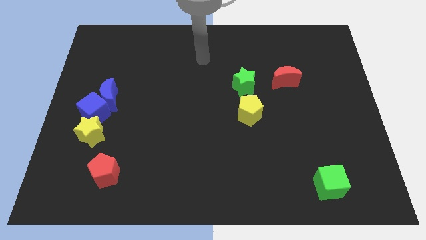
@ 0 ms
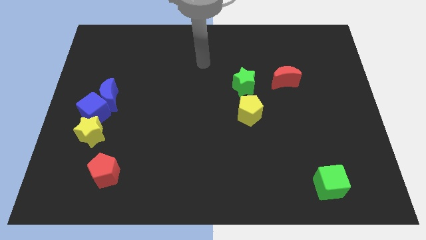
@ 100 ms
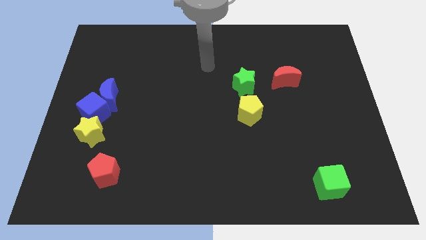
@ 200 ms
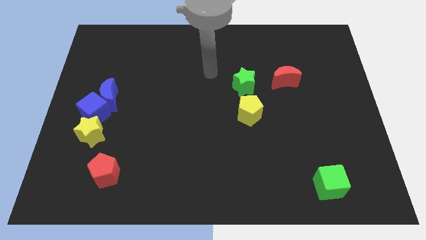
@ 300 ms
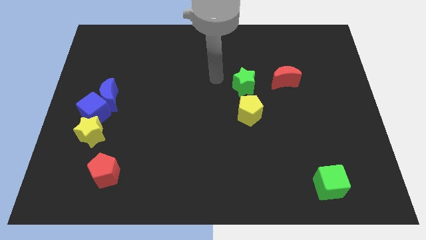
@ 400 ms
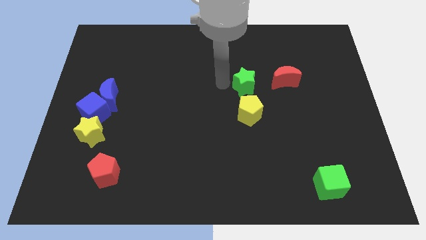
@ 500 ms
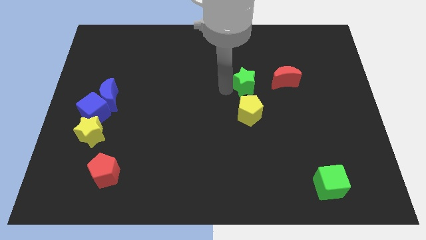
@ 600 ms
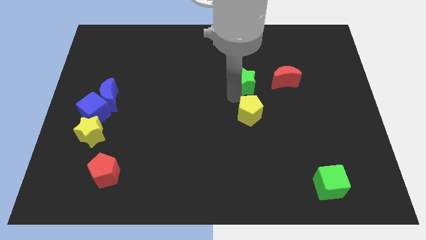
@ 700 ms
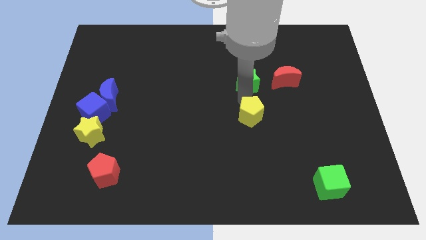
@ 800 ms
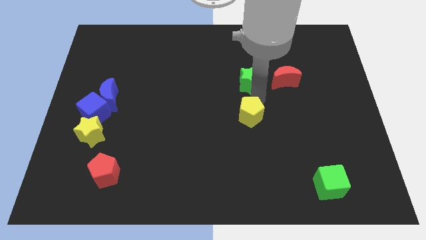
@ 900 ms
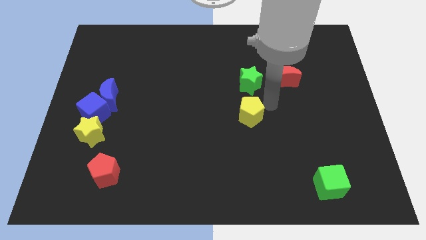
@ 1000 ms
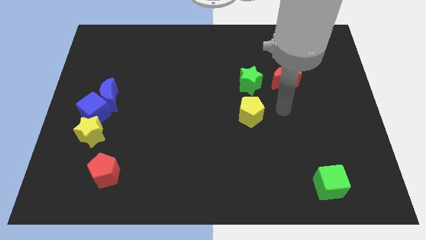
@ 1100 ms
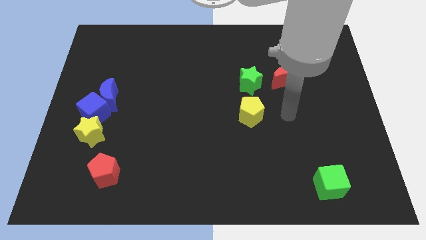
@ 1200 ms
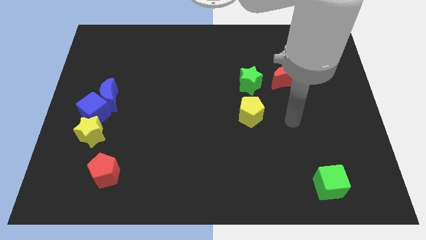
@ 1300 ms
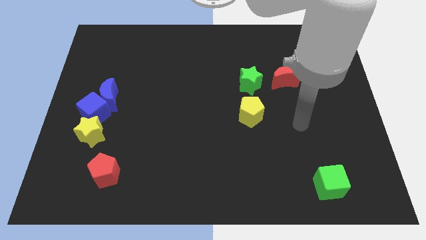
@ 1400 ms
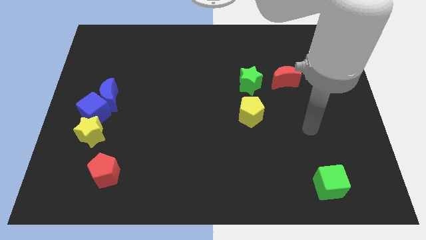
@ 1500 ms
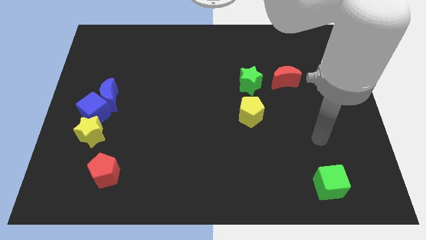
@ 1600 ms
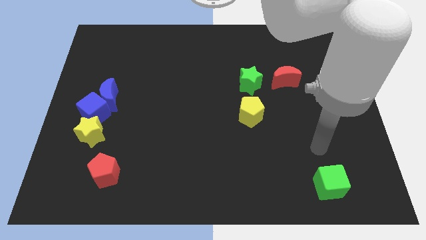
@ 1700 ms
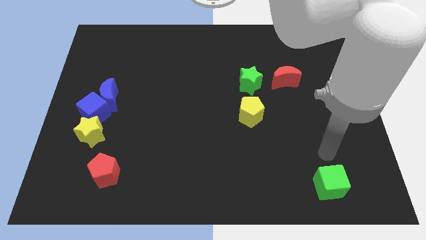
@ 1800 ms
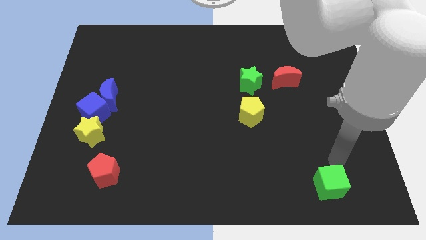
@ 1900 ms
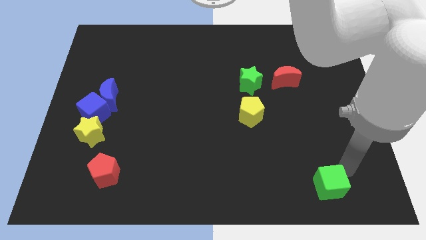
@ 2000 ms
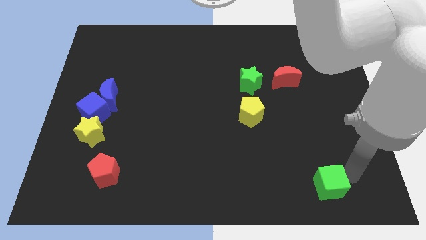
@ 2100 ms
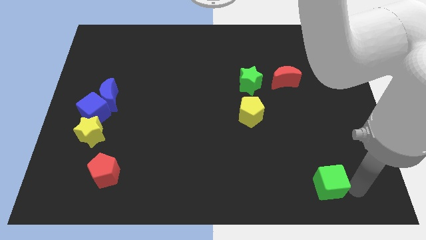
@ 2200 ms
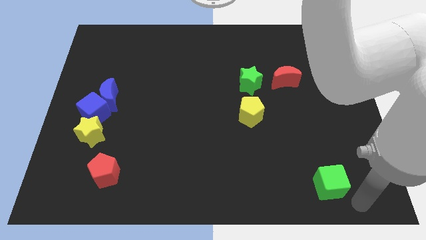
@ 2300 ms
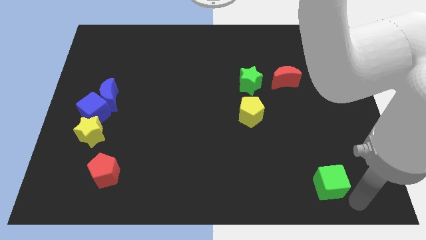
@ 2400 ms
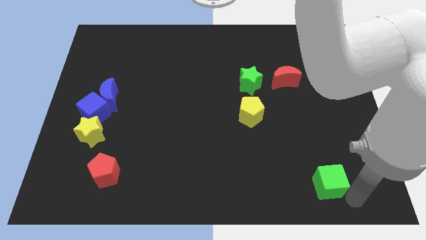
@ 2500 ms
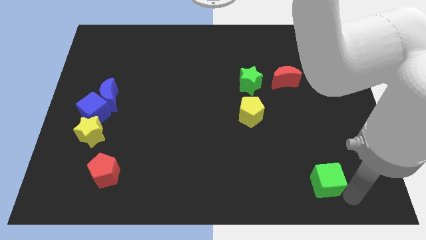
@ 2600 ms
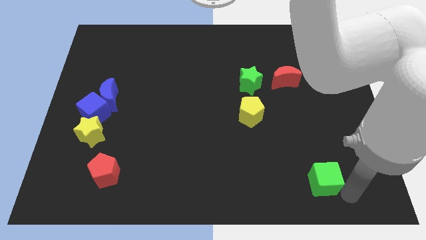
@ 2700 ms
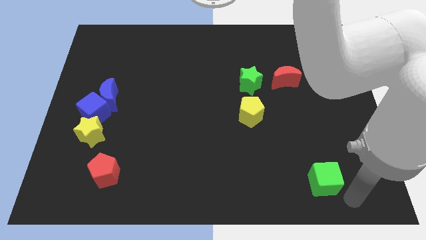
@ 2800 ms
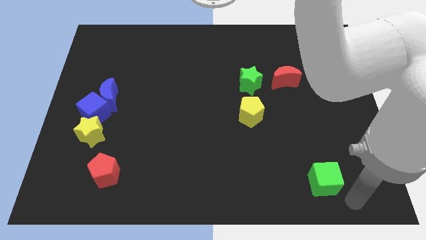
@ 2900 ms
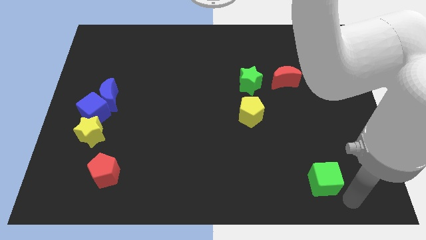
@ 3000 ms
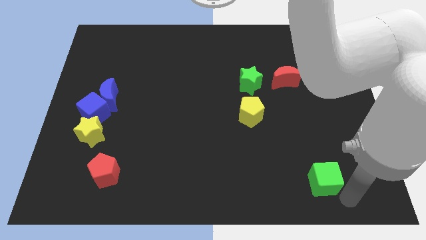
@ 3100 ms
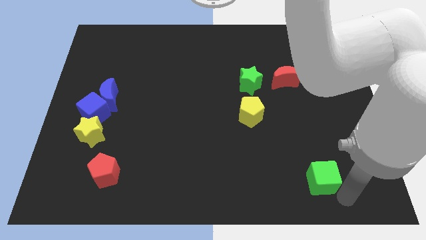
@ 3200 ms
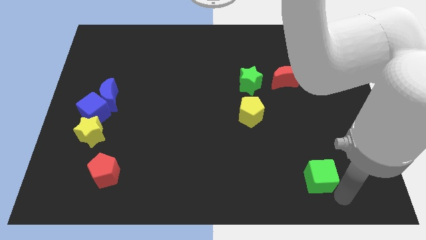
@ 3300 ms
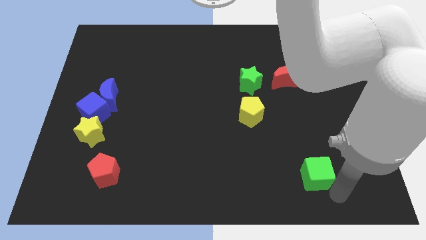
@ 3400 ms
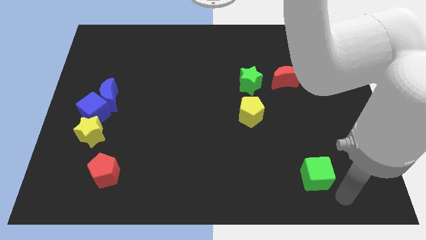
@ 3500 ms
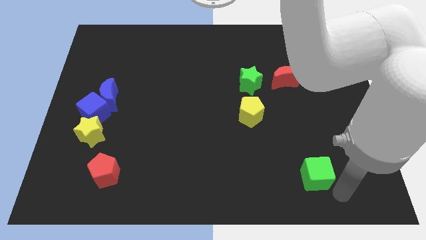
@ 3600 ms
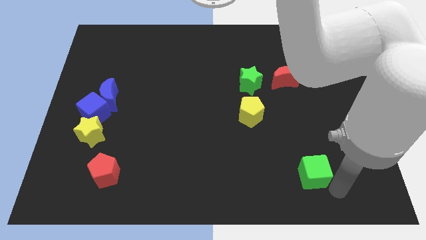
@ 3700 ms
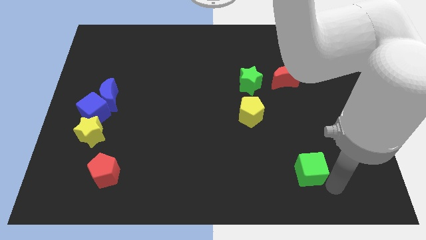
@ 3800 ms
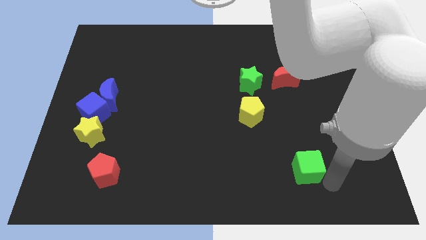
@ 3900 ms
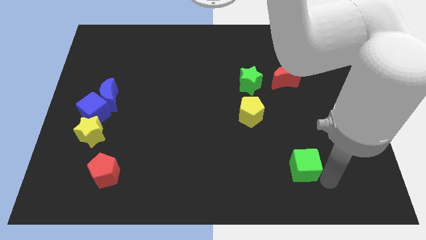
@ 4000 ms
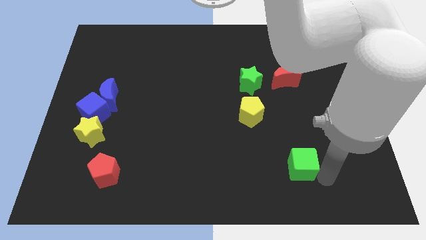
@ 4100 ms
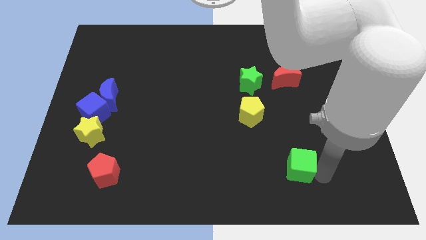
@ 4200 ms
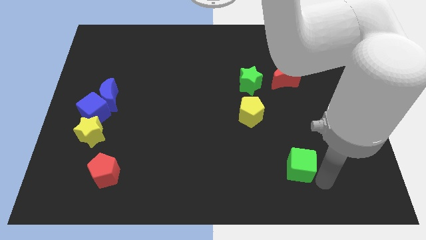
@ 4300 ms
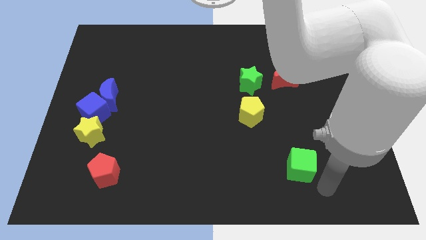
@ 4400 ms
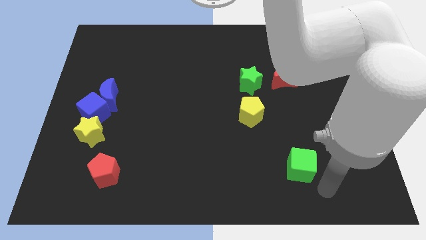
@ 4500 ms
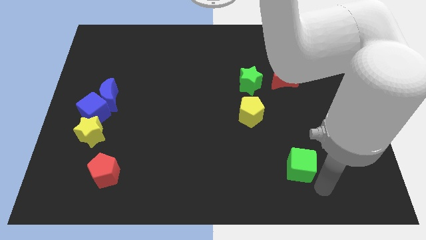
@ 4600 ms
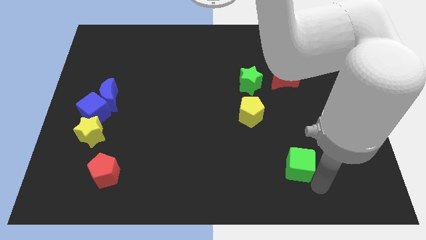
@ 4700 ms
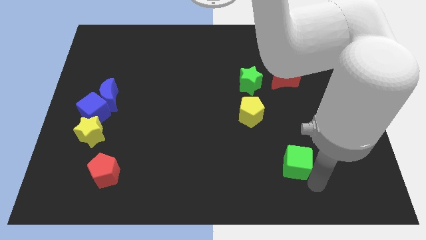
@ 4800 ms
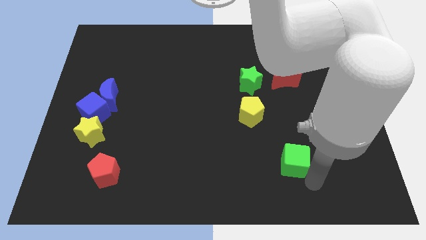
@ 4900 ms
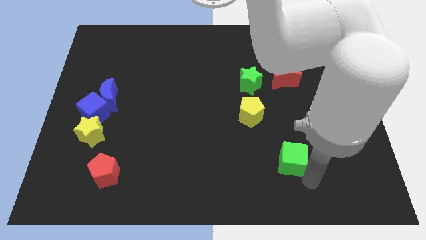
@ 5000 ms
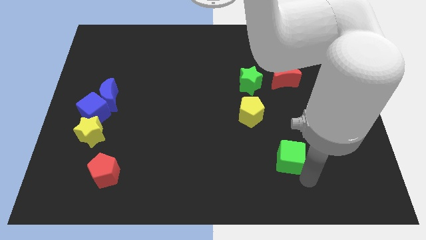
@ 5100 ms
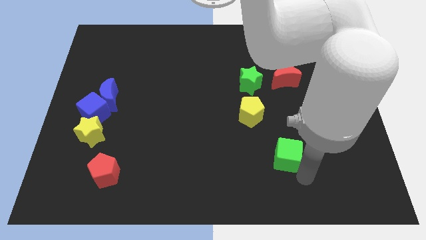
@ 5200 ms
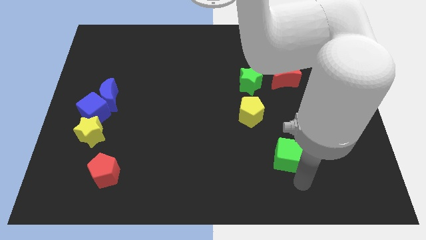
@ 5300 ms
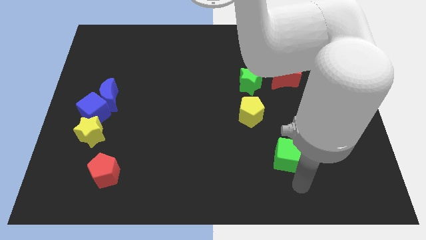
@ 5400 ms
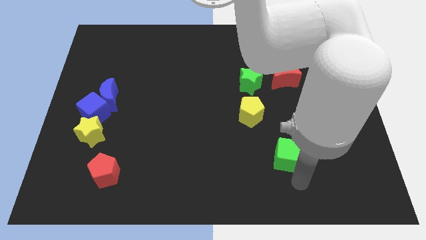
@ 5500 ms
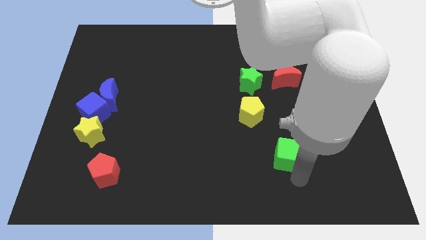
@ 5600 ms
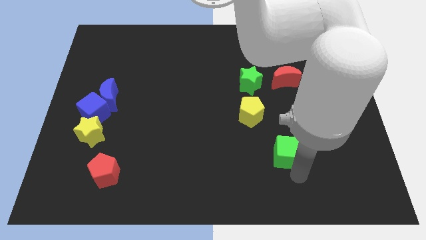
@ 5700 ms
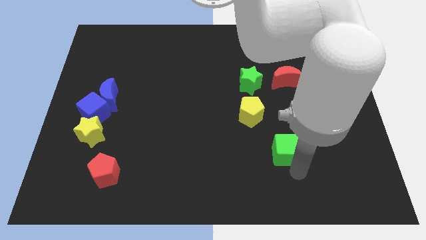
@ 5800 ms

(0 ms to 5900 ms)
push the green cube to the bottom right side of the yellow pentagon

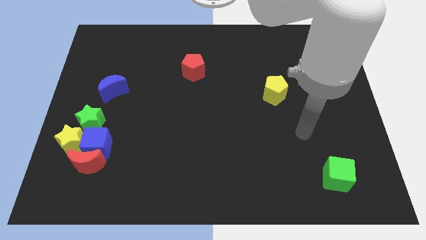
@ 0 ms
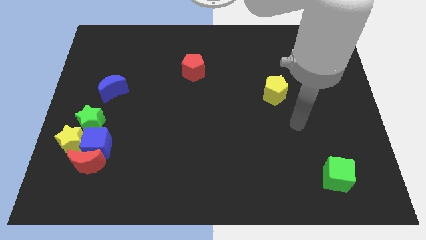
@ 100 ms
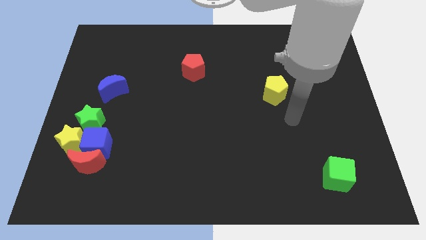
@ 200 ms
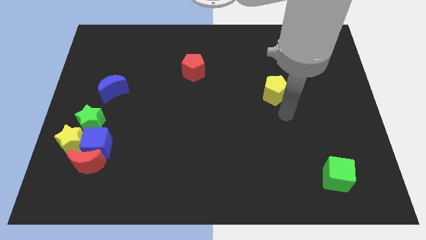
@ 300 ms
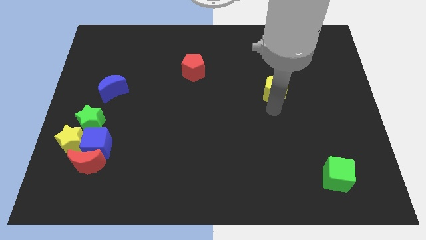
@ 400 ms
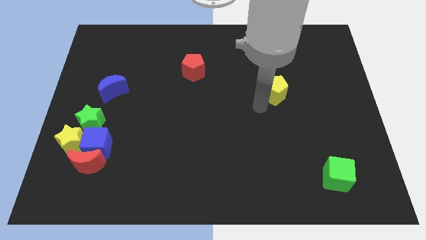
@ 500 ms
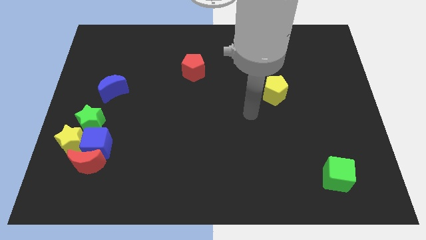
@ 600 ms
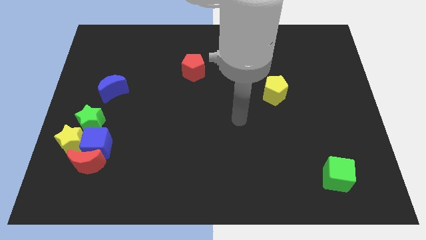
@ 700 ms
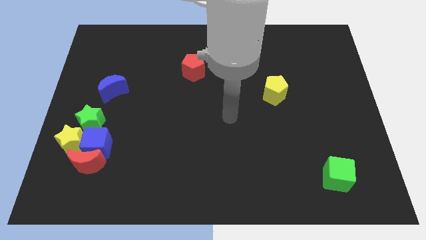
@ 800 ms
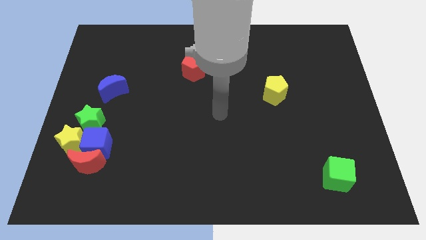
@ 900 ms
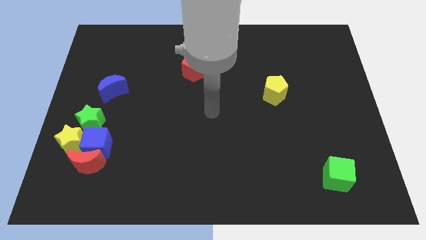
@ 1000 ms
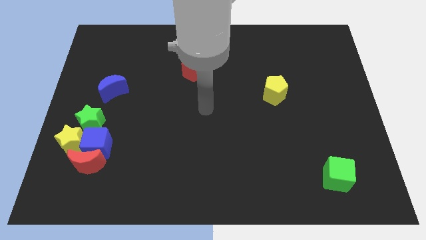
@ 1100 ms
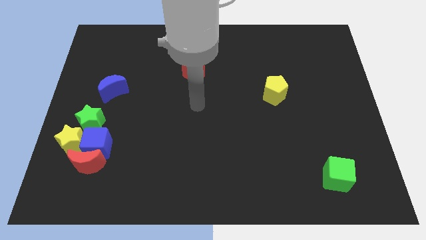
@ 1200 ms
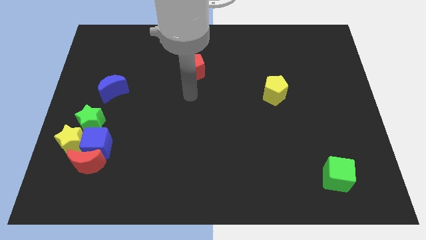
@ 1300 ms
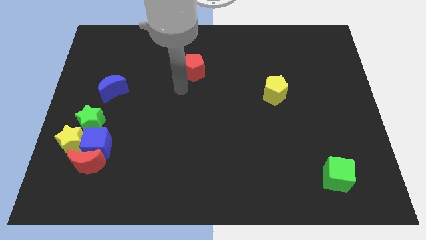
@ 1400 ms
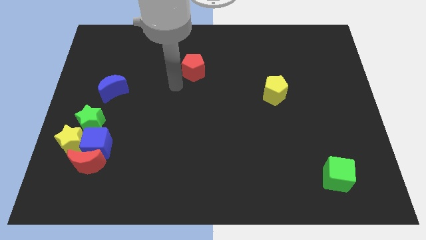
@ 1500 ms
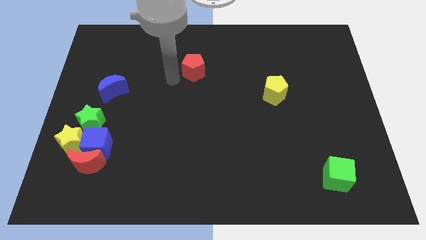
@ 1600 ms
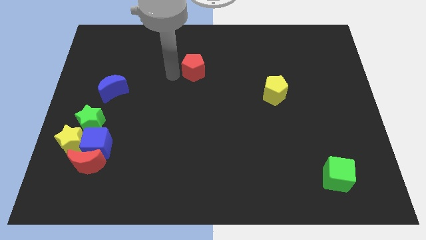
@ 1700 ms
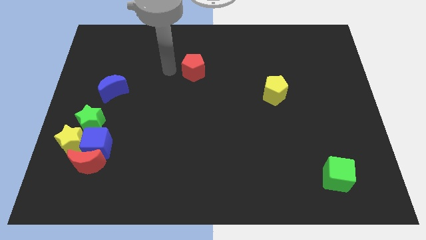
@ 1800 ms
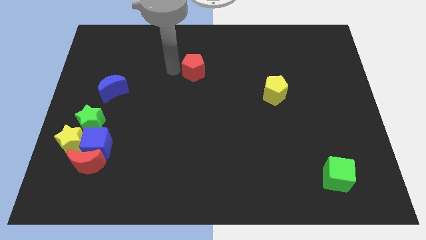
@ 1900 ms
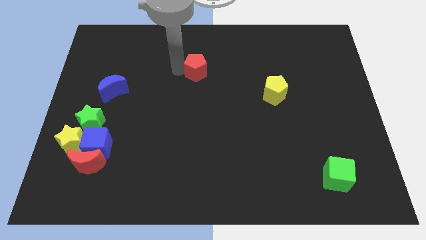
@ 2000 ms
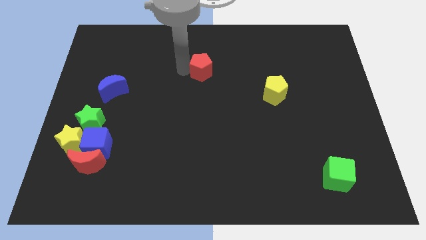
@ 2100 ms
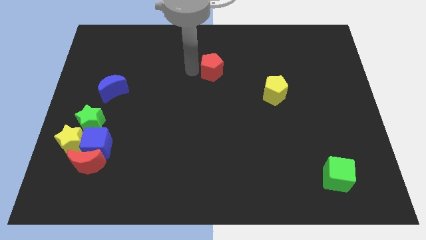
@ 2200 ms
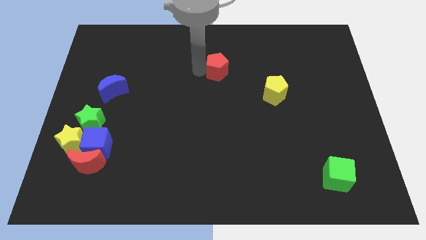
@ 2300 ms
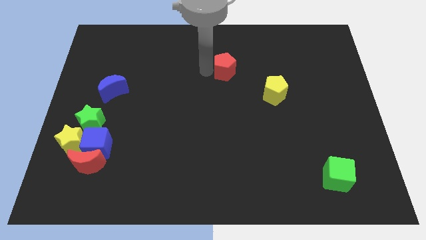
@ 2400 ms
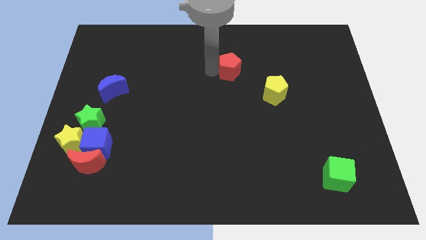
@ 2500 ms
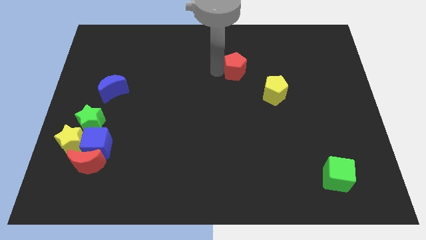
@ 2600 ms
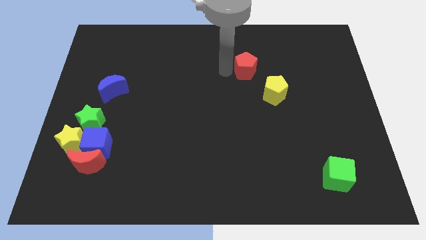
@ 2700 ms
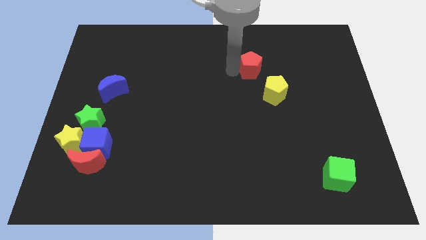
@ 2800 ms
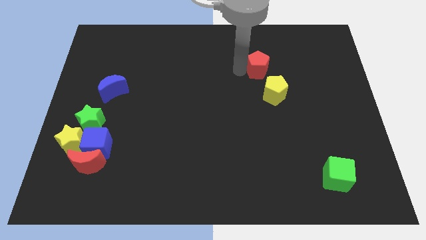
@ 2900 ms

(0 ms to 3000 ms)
push the red pentagon above the yellow pentagon
